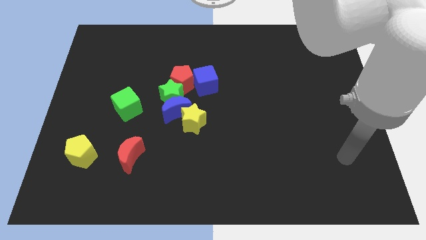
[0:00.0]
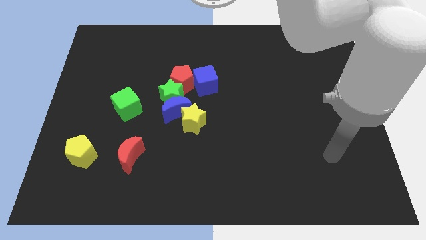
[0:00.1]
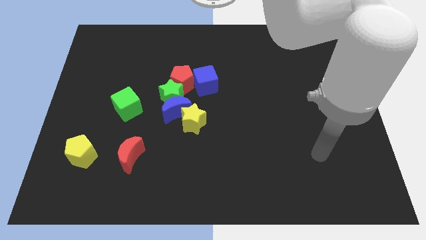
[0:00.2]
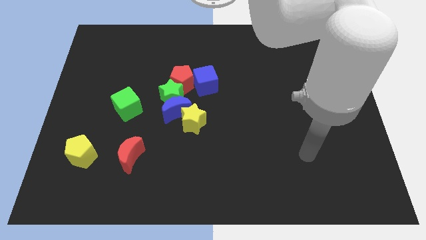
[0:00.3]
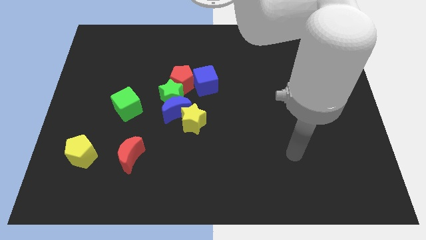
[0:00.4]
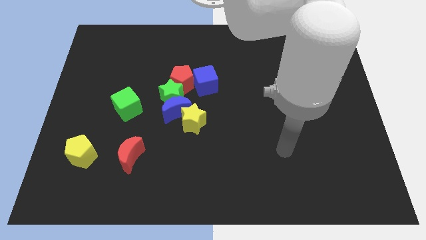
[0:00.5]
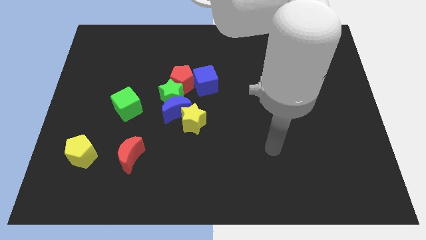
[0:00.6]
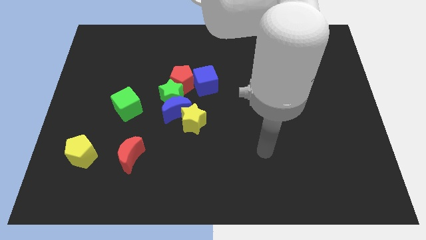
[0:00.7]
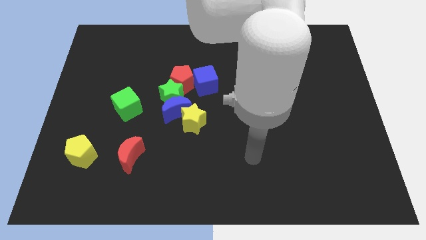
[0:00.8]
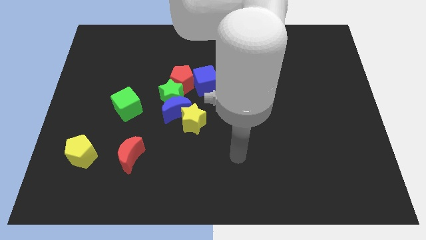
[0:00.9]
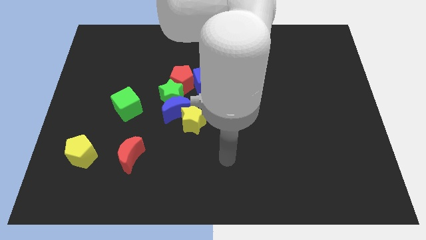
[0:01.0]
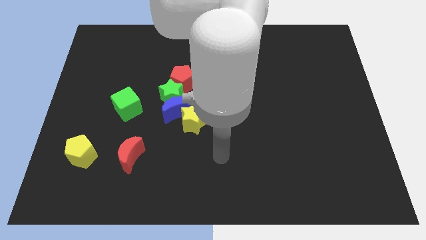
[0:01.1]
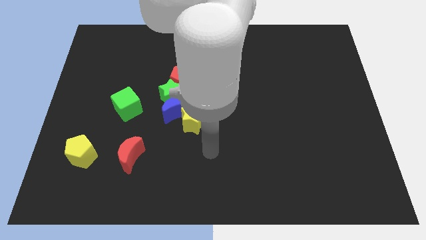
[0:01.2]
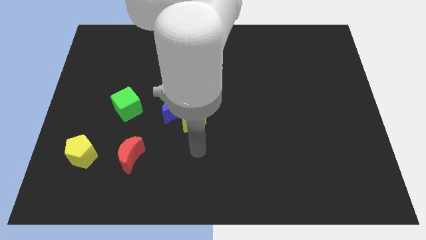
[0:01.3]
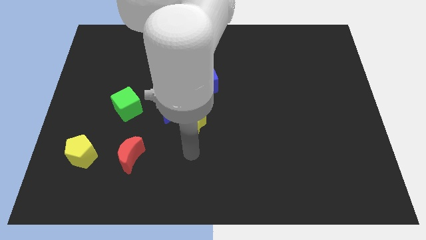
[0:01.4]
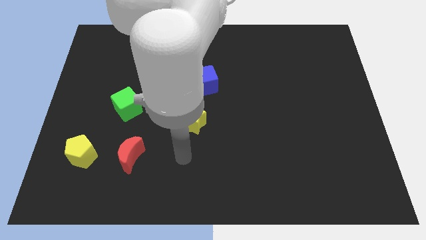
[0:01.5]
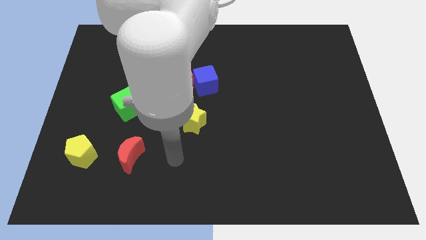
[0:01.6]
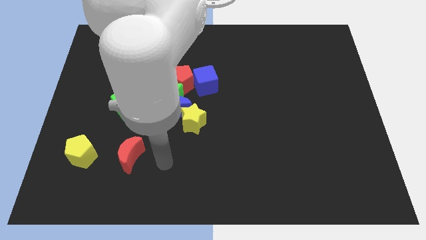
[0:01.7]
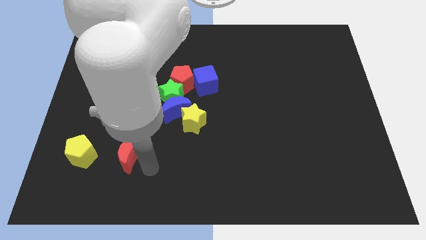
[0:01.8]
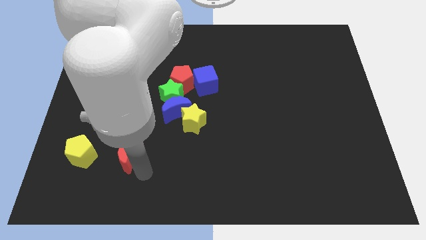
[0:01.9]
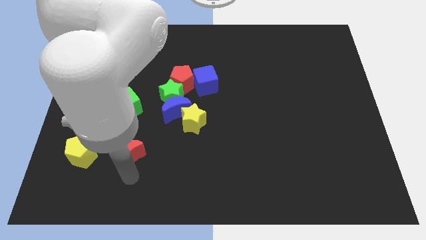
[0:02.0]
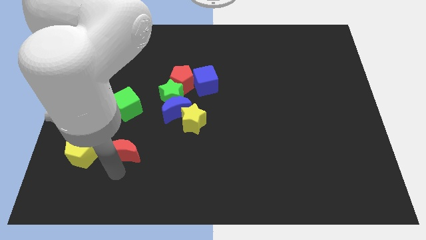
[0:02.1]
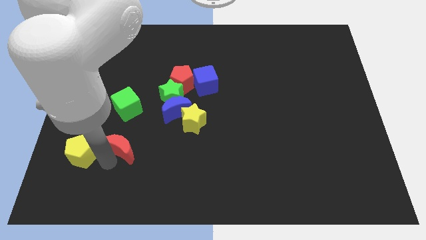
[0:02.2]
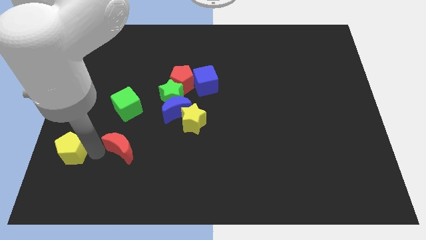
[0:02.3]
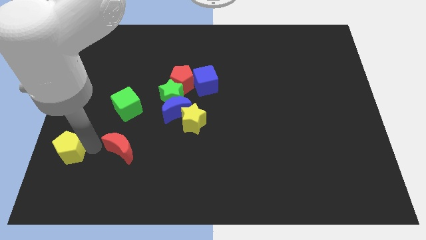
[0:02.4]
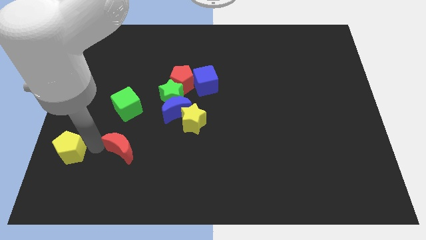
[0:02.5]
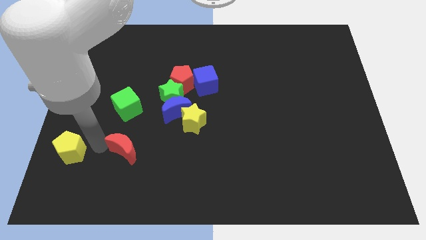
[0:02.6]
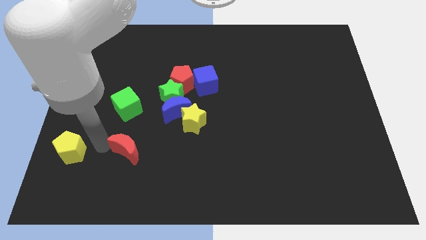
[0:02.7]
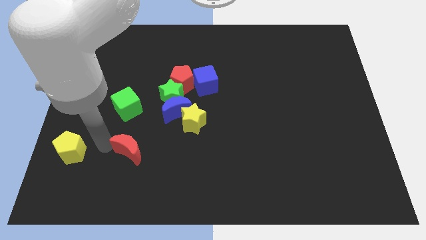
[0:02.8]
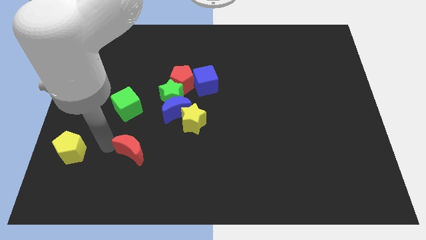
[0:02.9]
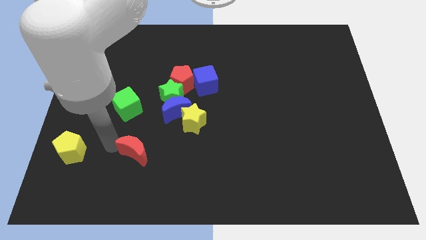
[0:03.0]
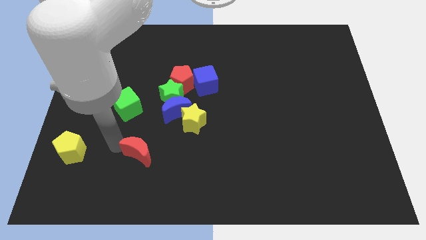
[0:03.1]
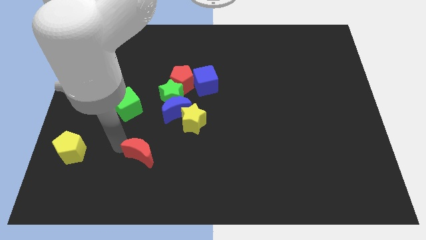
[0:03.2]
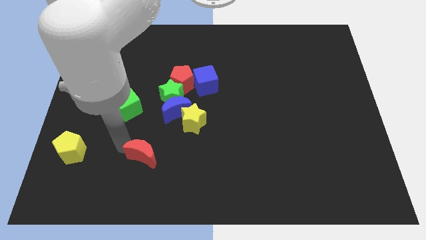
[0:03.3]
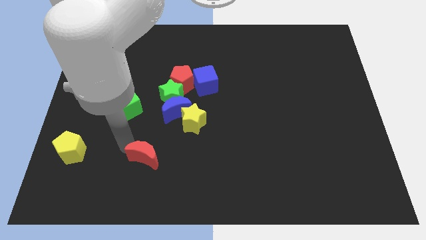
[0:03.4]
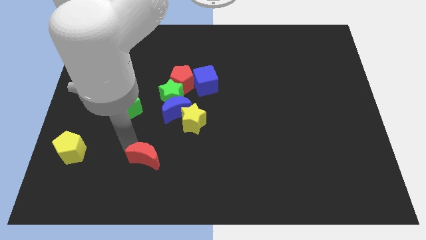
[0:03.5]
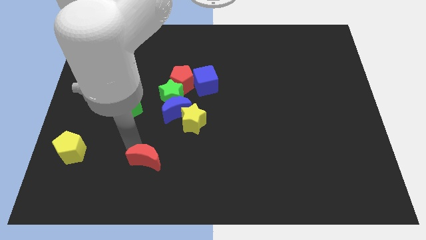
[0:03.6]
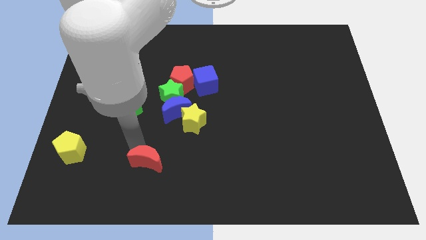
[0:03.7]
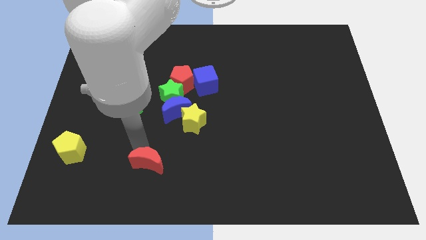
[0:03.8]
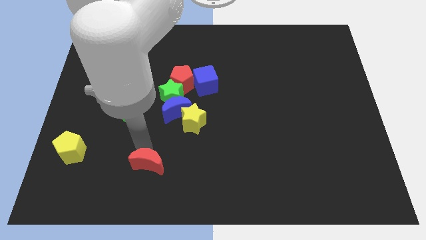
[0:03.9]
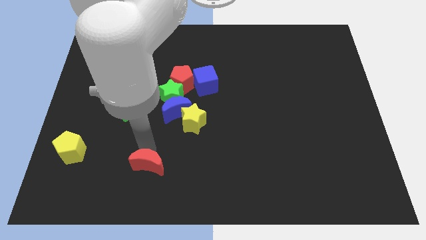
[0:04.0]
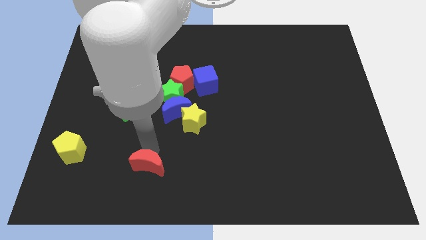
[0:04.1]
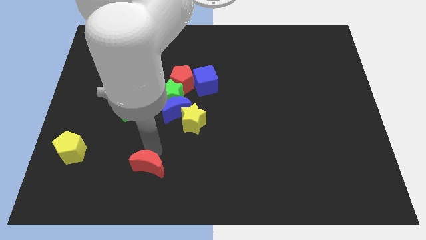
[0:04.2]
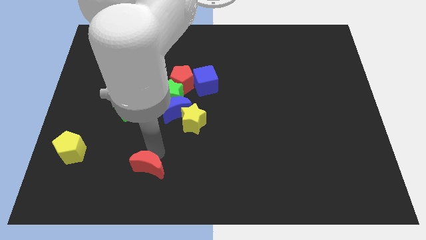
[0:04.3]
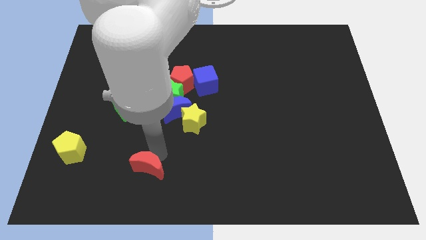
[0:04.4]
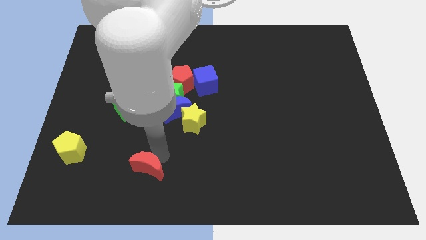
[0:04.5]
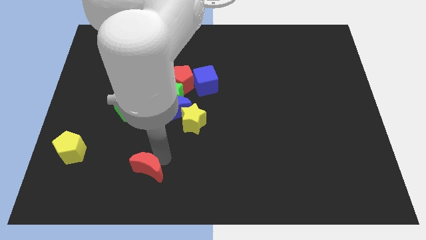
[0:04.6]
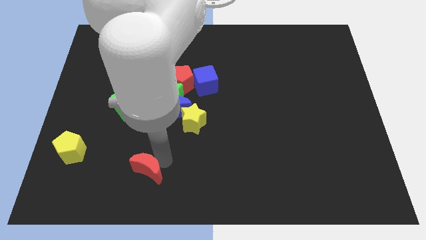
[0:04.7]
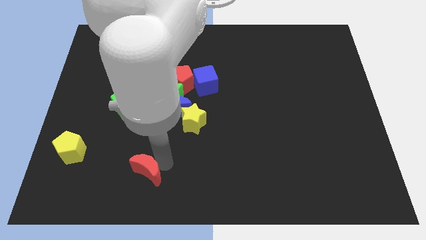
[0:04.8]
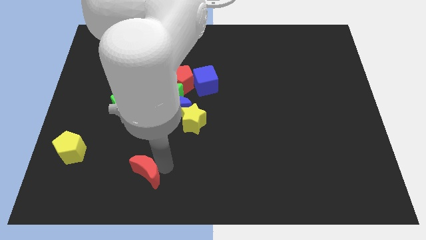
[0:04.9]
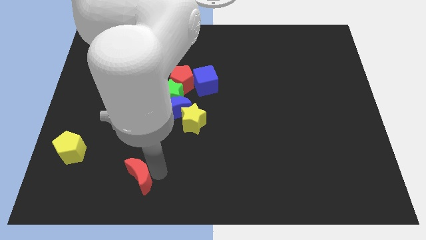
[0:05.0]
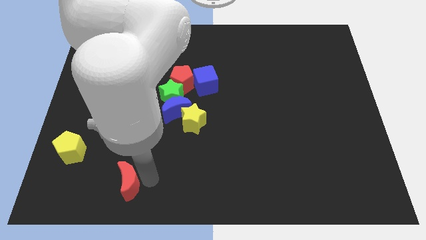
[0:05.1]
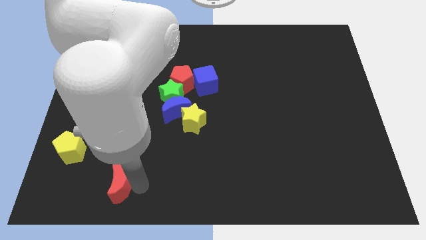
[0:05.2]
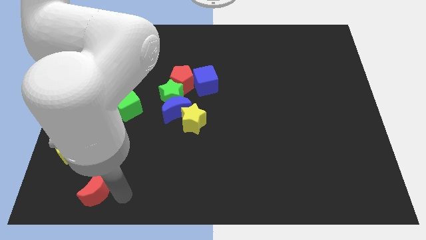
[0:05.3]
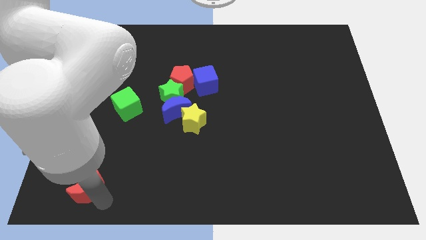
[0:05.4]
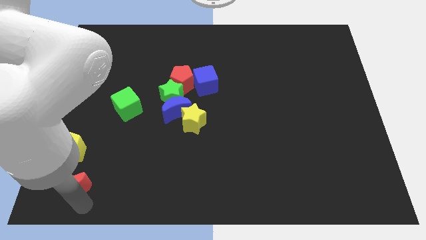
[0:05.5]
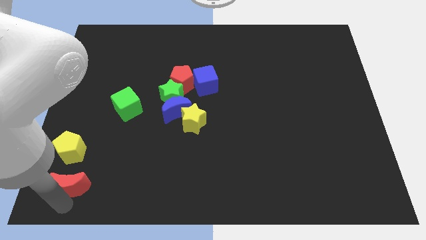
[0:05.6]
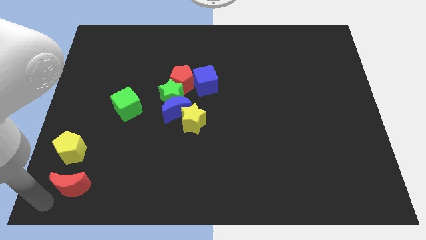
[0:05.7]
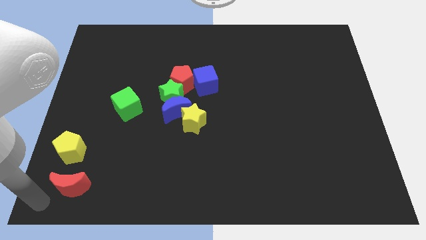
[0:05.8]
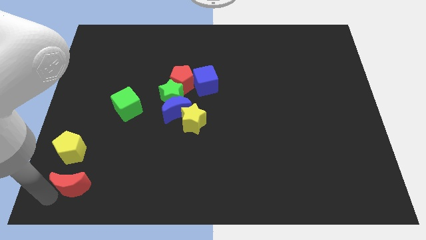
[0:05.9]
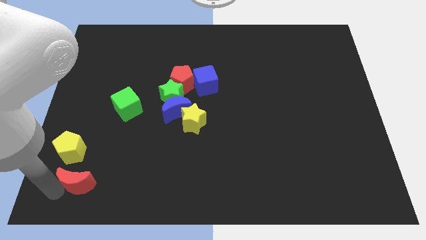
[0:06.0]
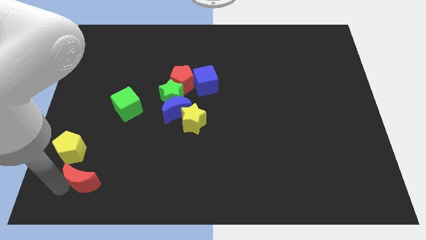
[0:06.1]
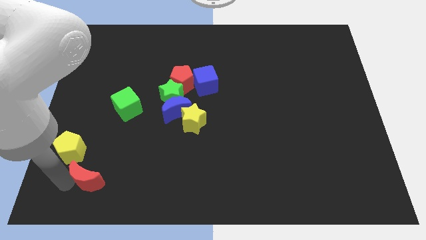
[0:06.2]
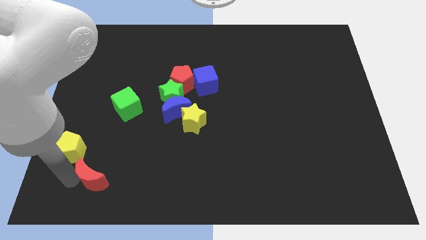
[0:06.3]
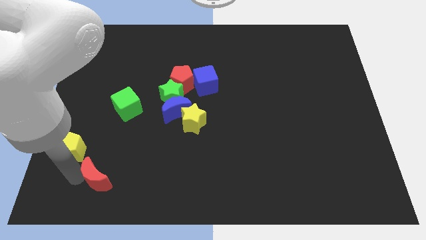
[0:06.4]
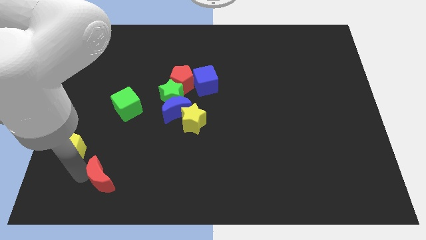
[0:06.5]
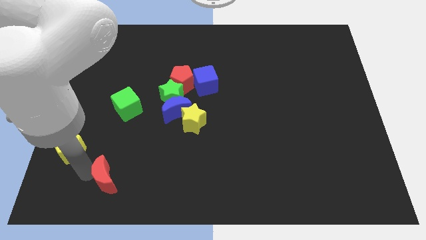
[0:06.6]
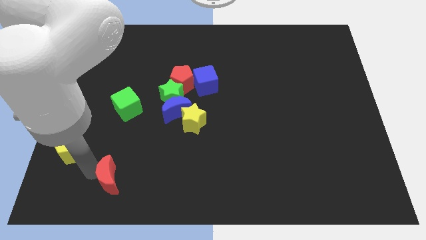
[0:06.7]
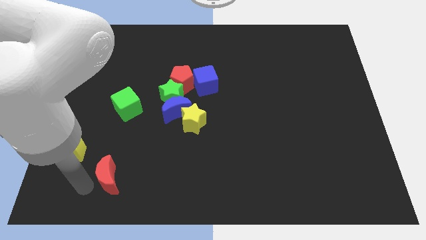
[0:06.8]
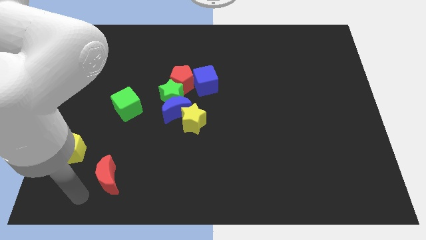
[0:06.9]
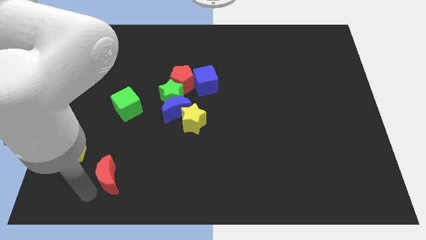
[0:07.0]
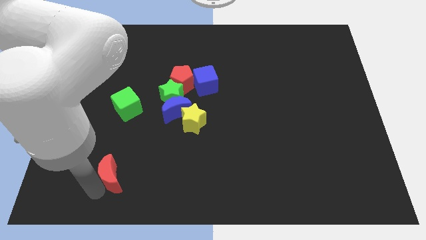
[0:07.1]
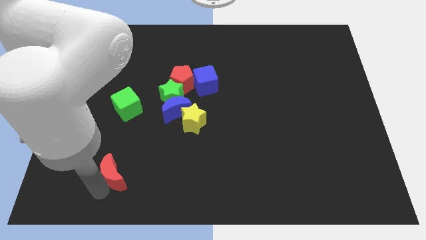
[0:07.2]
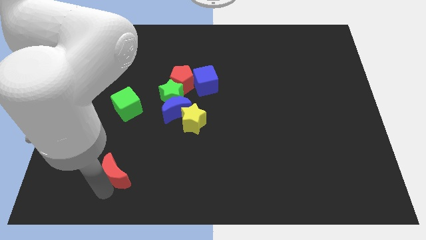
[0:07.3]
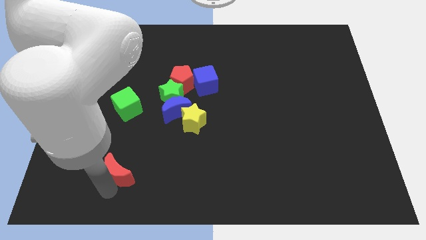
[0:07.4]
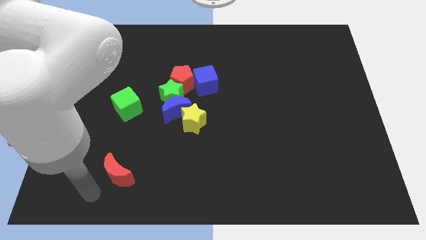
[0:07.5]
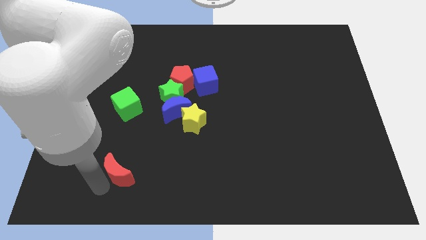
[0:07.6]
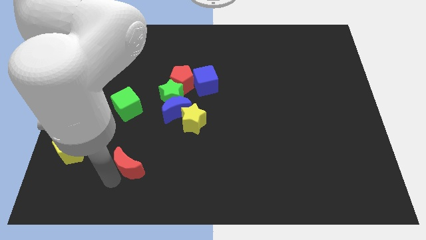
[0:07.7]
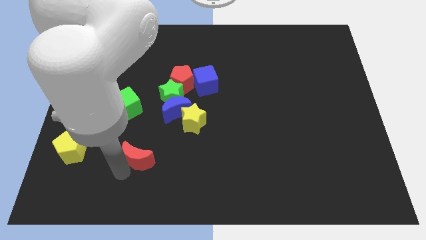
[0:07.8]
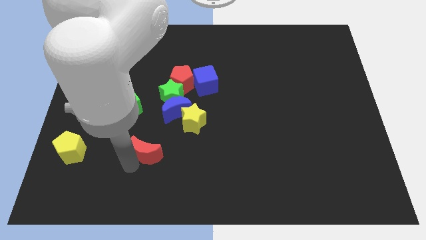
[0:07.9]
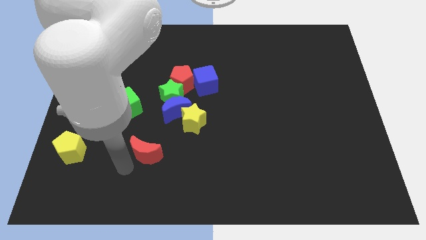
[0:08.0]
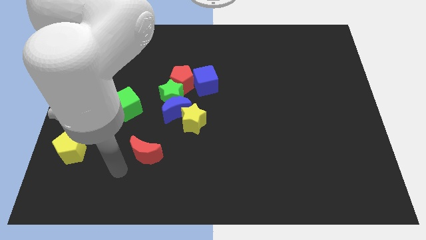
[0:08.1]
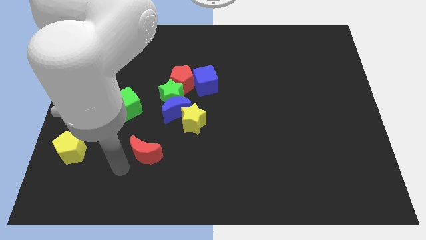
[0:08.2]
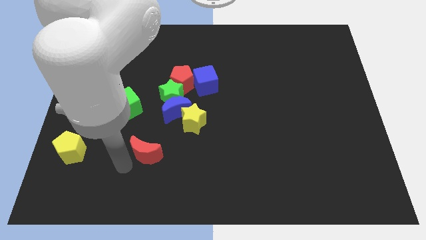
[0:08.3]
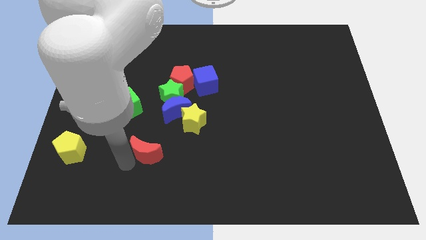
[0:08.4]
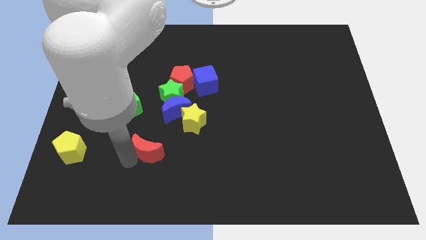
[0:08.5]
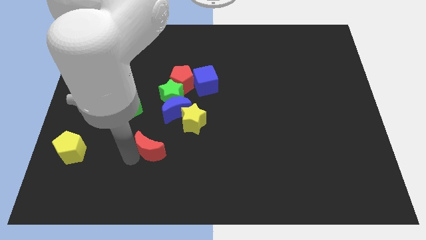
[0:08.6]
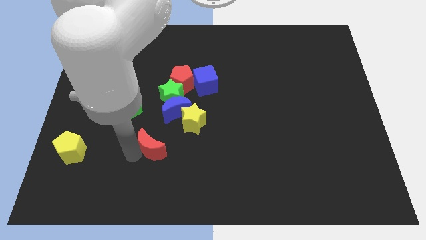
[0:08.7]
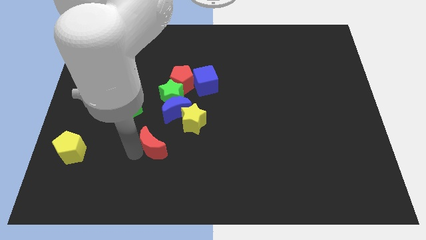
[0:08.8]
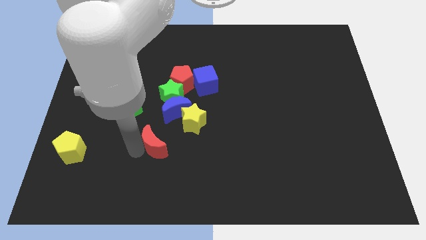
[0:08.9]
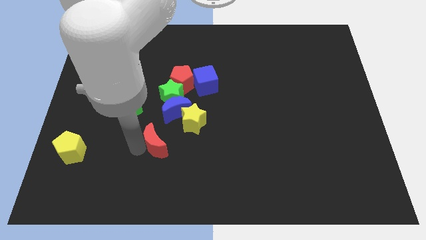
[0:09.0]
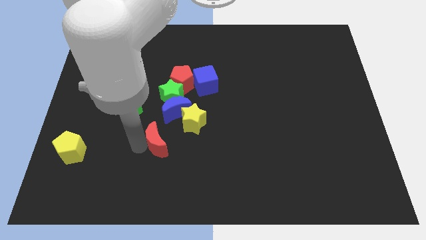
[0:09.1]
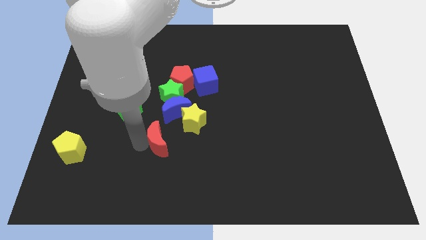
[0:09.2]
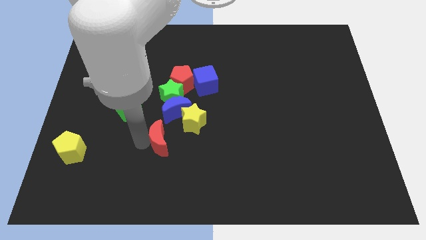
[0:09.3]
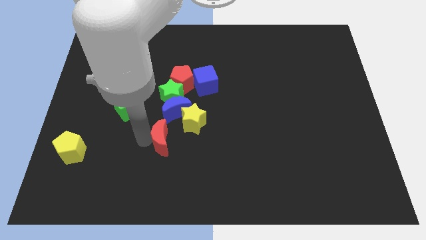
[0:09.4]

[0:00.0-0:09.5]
slightly move the red moon up and right diagonally
